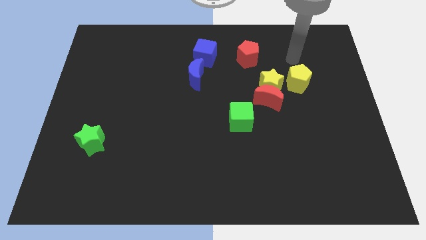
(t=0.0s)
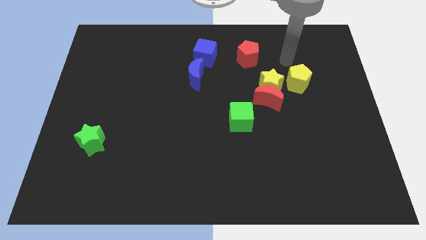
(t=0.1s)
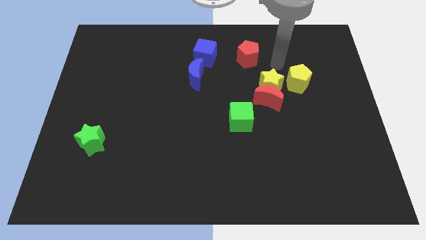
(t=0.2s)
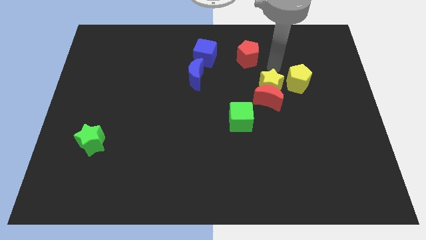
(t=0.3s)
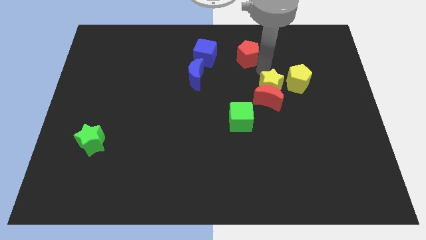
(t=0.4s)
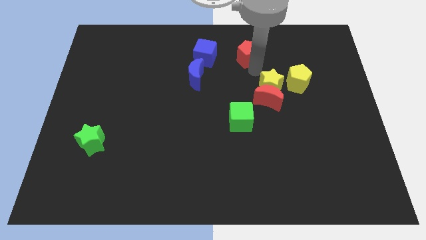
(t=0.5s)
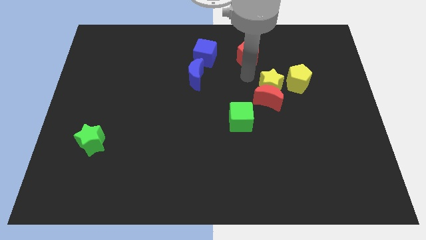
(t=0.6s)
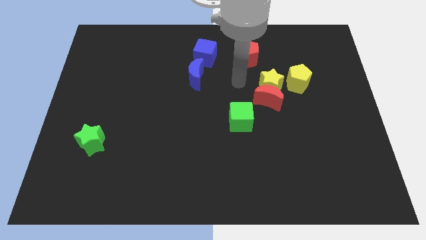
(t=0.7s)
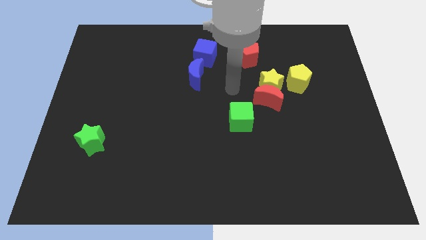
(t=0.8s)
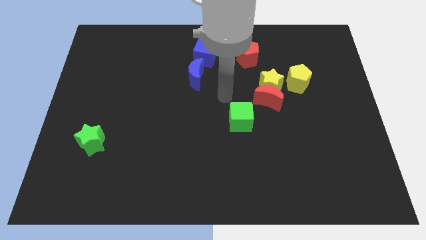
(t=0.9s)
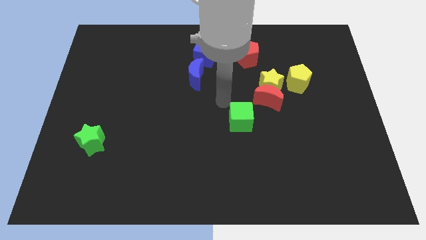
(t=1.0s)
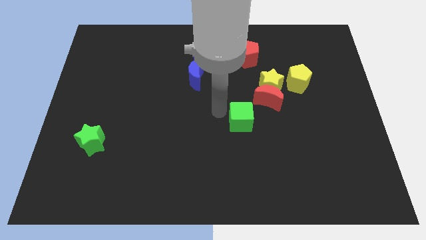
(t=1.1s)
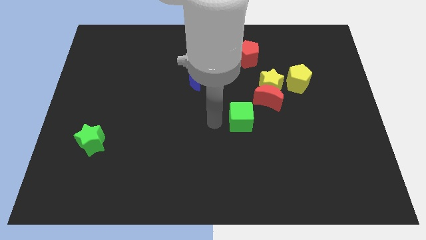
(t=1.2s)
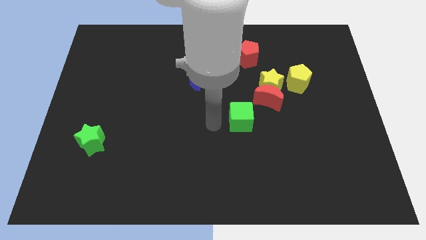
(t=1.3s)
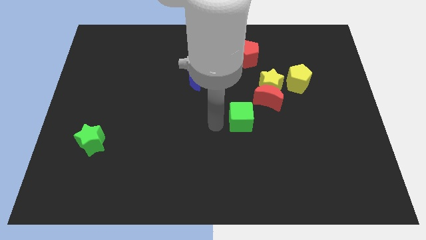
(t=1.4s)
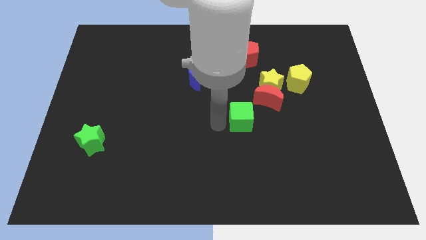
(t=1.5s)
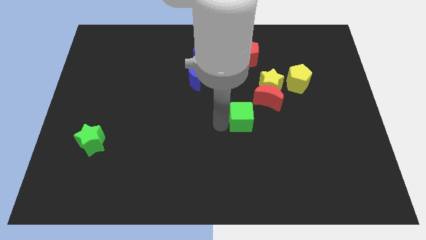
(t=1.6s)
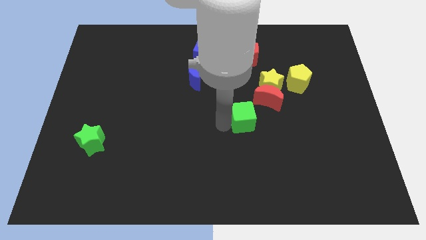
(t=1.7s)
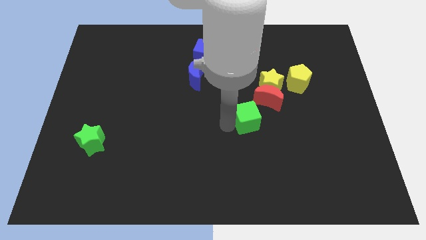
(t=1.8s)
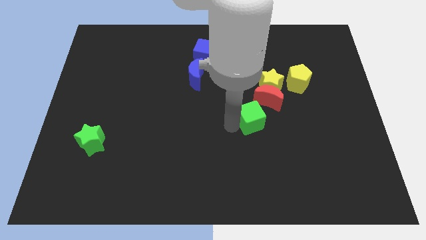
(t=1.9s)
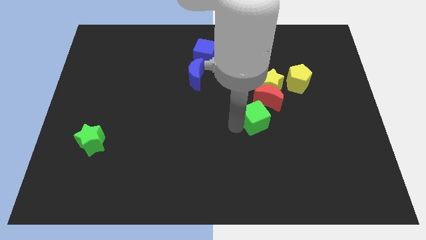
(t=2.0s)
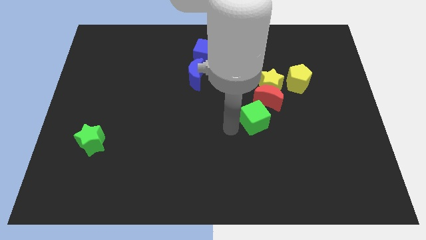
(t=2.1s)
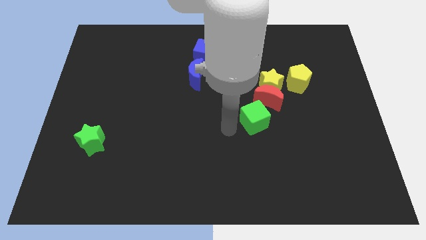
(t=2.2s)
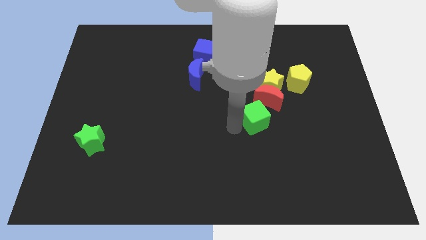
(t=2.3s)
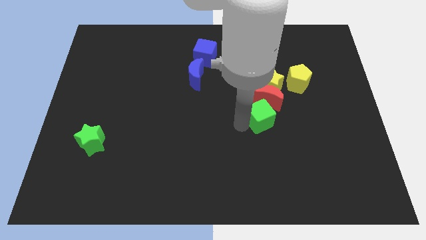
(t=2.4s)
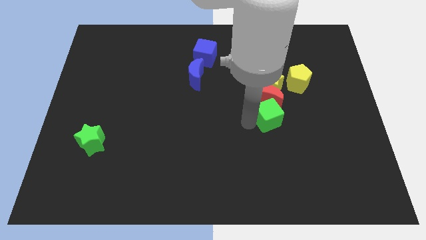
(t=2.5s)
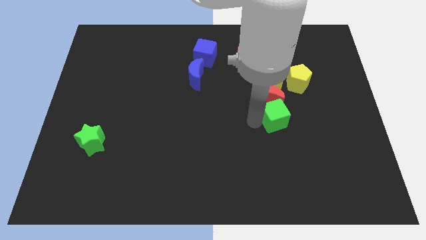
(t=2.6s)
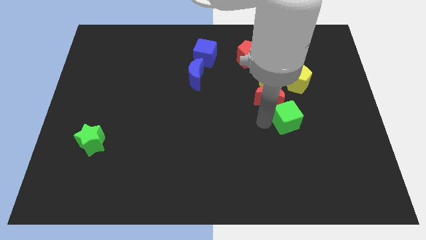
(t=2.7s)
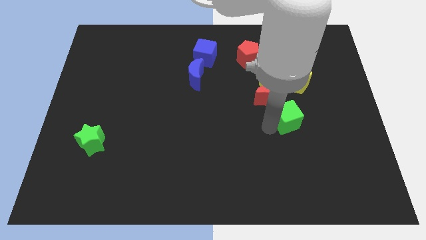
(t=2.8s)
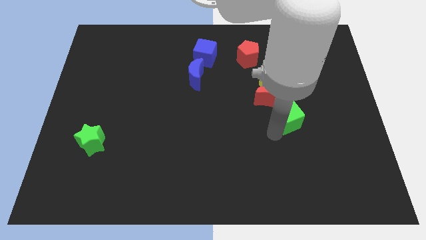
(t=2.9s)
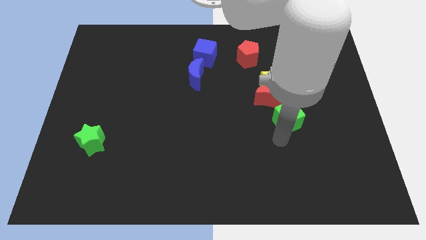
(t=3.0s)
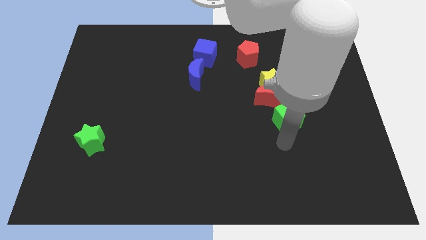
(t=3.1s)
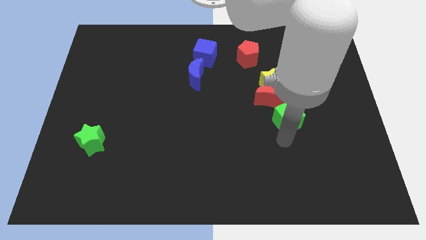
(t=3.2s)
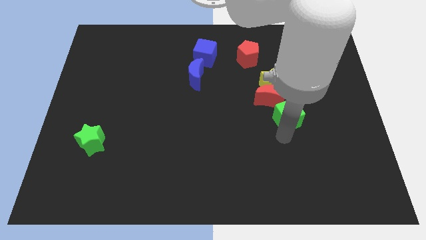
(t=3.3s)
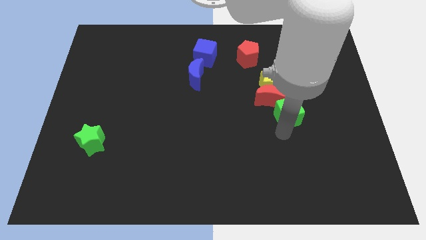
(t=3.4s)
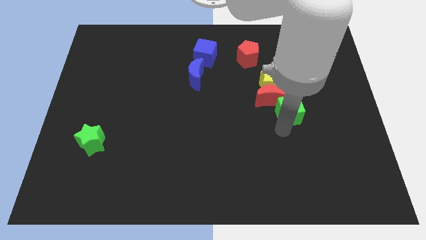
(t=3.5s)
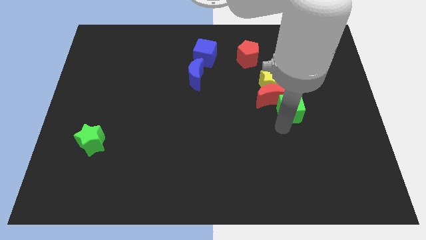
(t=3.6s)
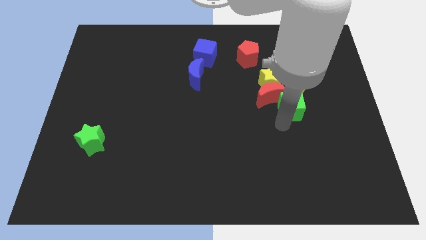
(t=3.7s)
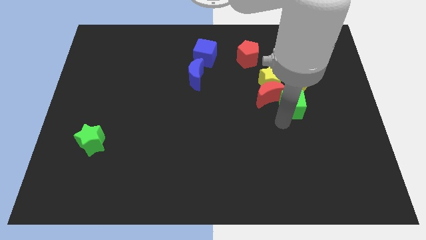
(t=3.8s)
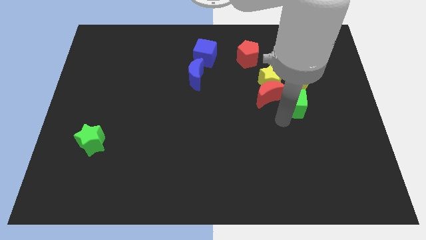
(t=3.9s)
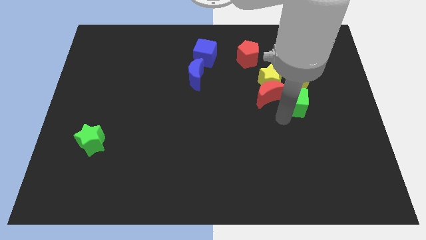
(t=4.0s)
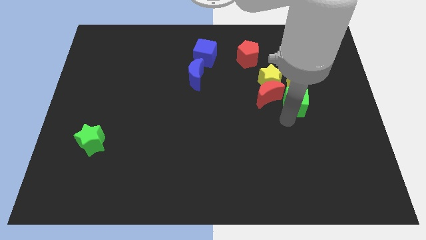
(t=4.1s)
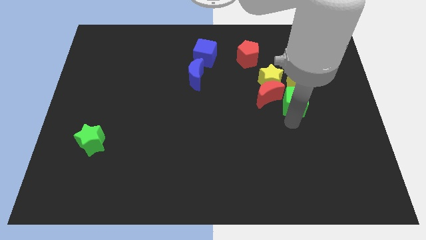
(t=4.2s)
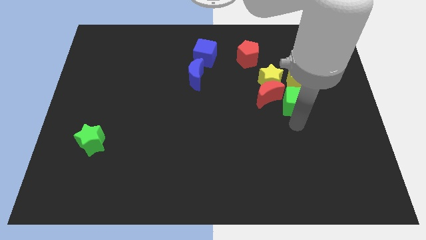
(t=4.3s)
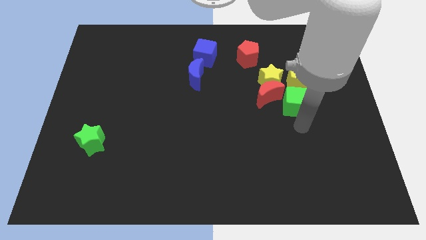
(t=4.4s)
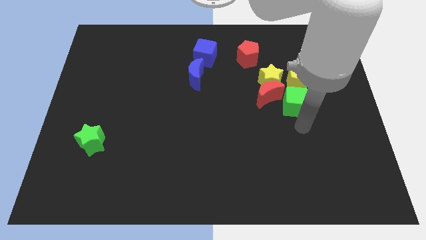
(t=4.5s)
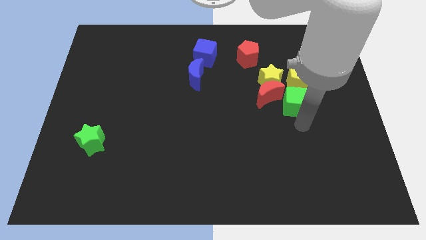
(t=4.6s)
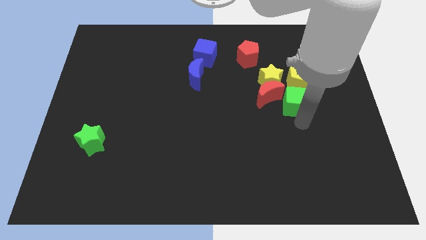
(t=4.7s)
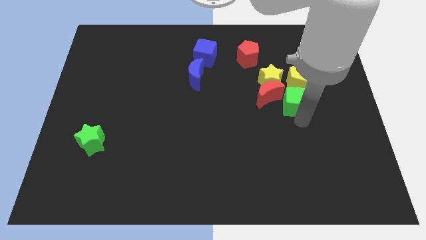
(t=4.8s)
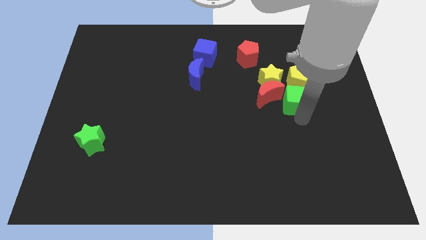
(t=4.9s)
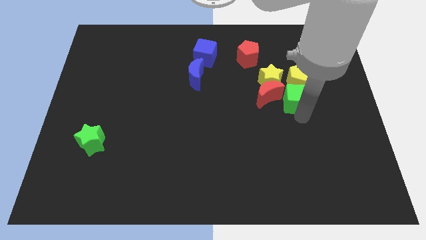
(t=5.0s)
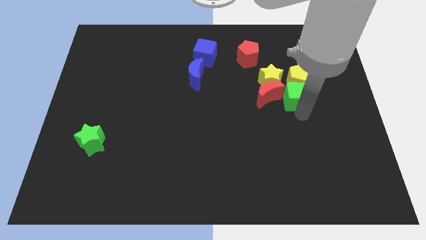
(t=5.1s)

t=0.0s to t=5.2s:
slide the green cube next to the yellow pentagon

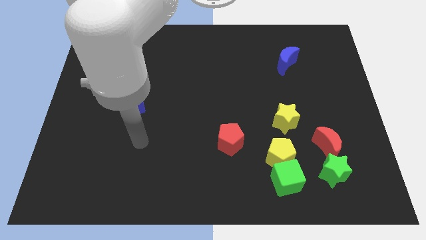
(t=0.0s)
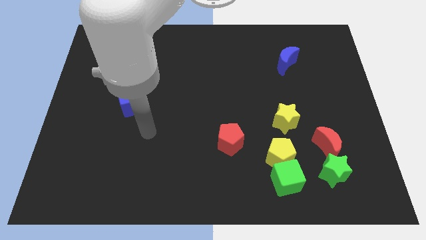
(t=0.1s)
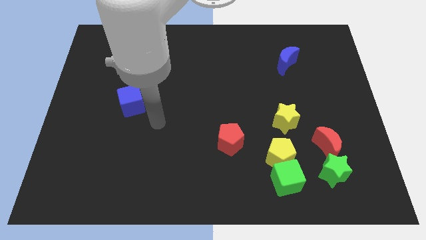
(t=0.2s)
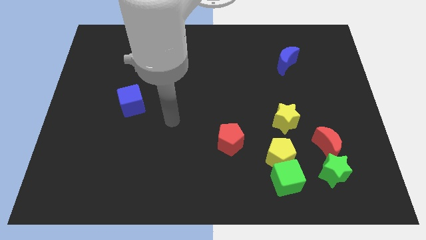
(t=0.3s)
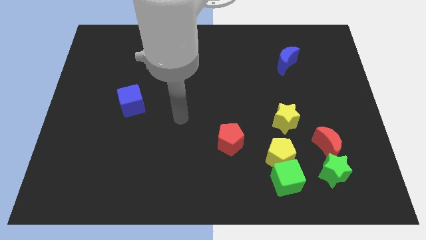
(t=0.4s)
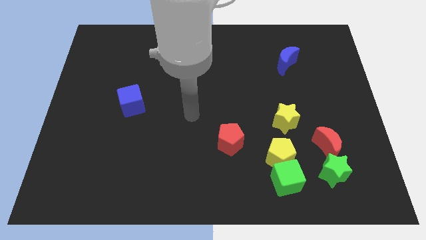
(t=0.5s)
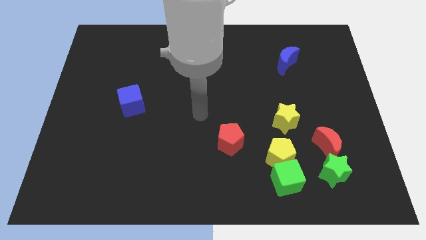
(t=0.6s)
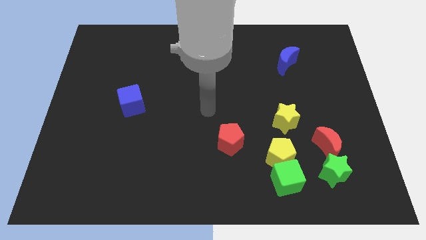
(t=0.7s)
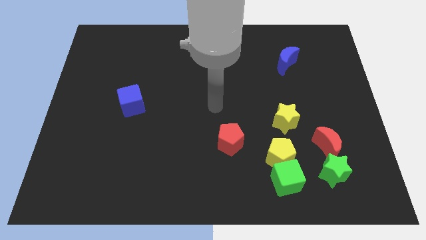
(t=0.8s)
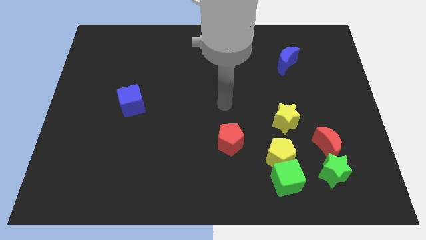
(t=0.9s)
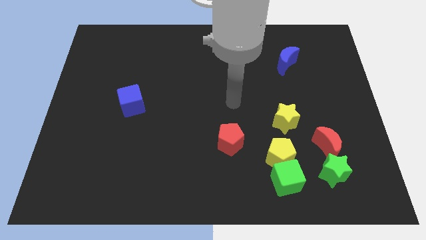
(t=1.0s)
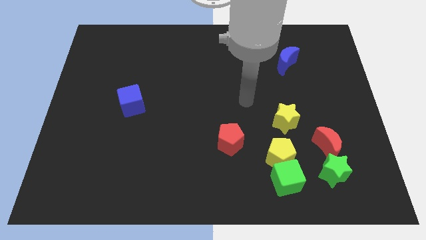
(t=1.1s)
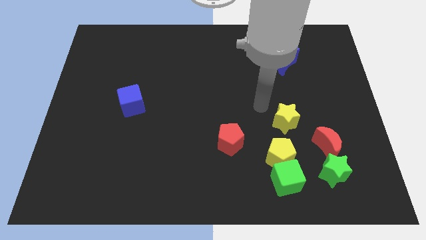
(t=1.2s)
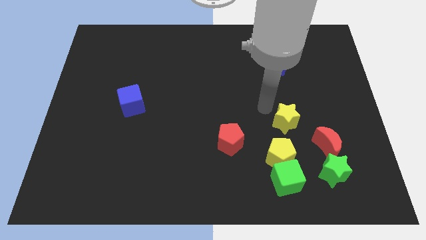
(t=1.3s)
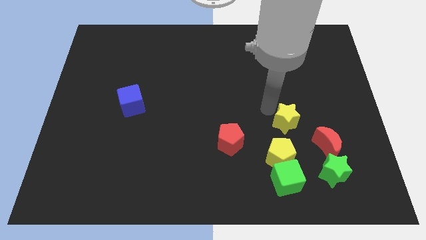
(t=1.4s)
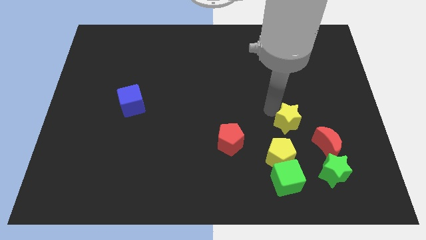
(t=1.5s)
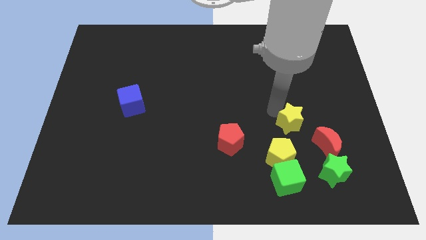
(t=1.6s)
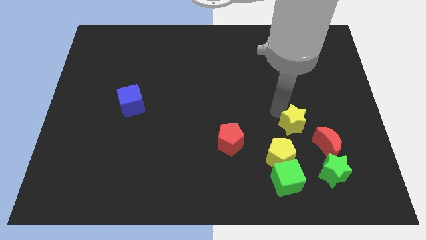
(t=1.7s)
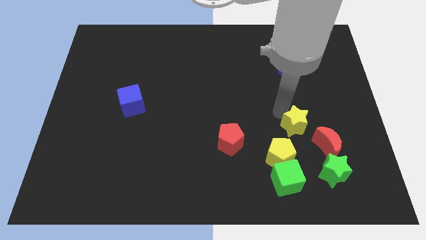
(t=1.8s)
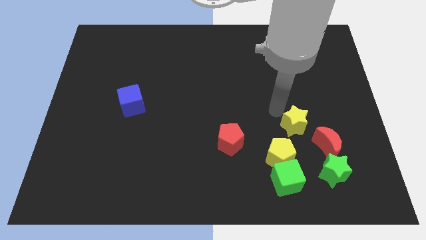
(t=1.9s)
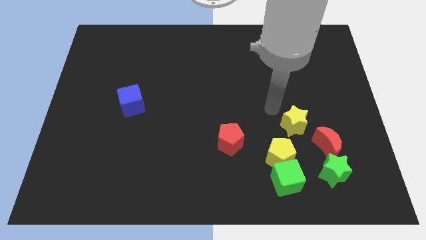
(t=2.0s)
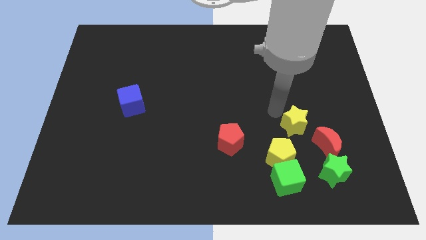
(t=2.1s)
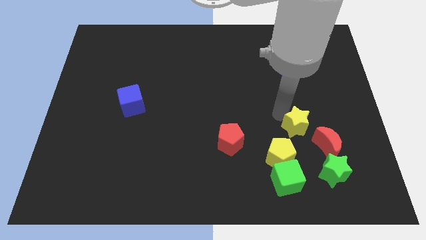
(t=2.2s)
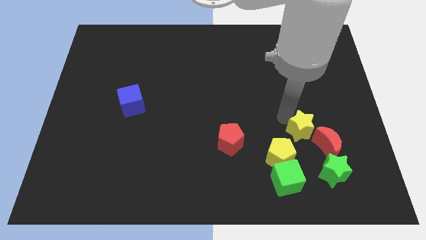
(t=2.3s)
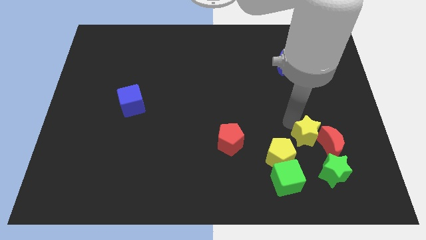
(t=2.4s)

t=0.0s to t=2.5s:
slide the yellow star to the red moon
